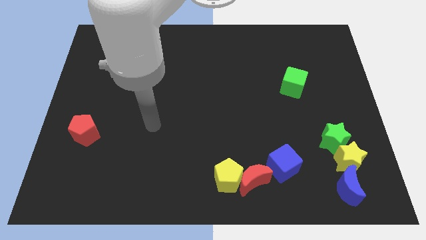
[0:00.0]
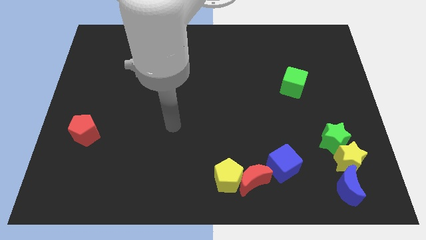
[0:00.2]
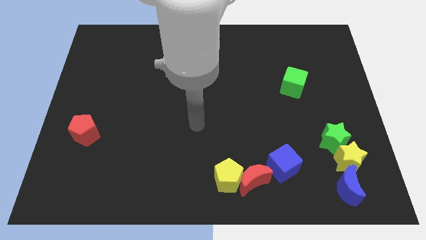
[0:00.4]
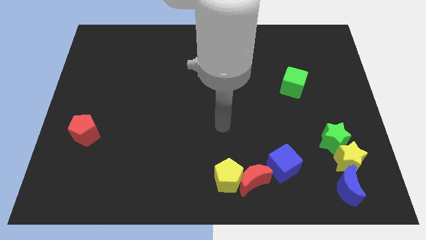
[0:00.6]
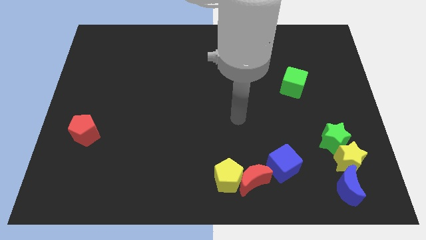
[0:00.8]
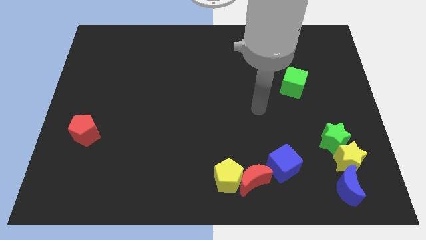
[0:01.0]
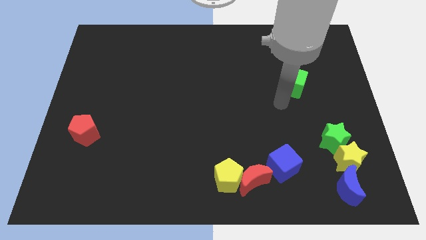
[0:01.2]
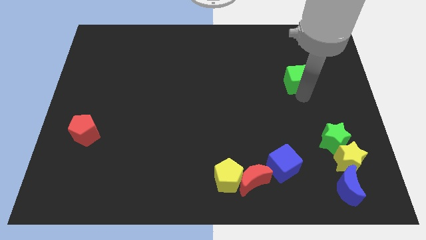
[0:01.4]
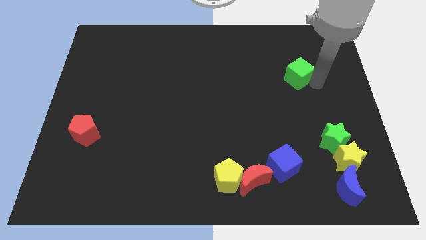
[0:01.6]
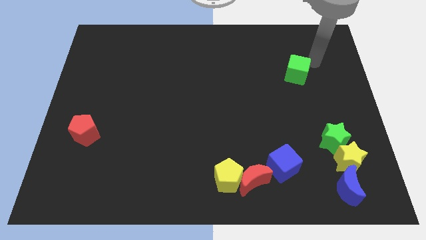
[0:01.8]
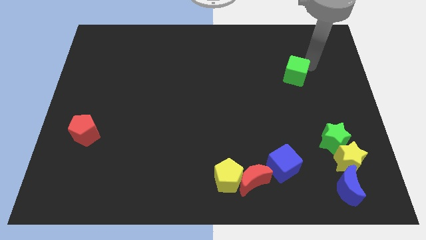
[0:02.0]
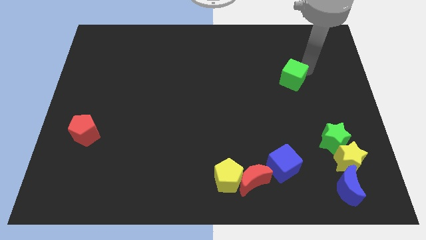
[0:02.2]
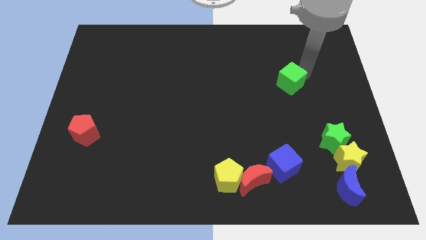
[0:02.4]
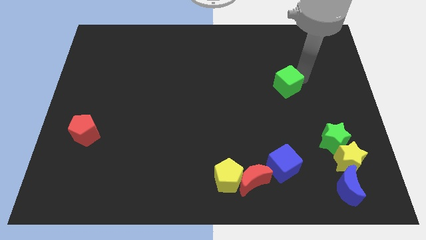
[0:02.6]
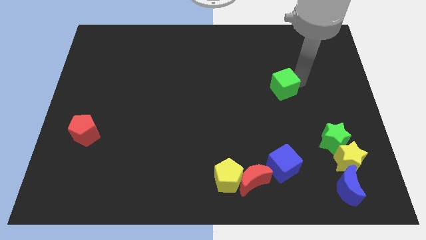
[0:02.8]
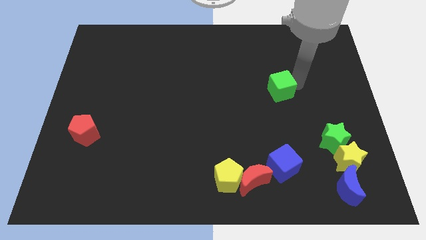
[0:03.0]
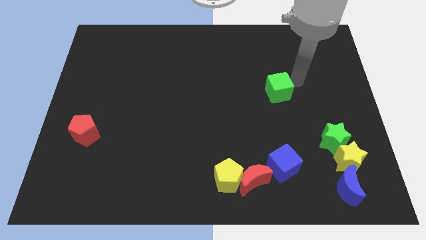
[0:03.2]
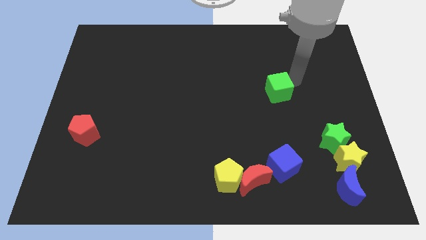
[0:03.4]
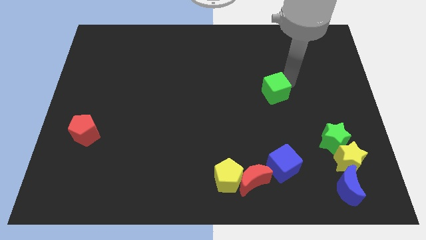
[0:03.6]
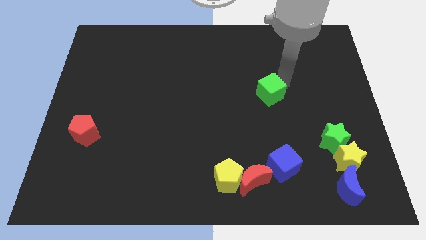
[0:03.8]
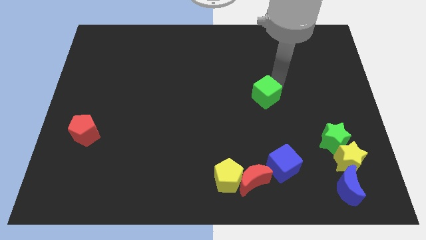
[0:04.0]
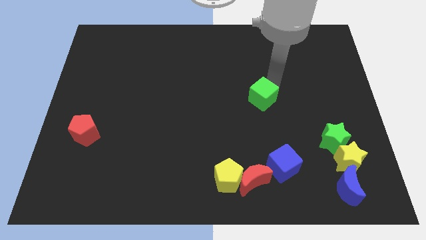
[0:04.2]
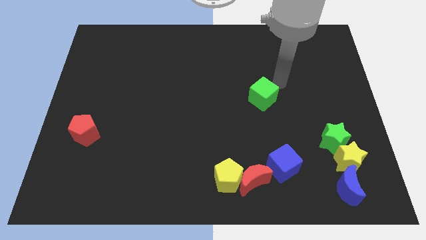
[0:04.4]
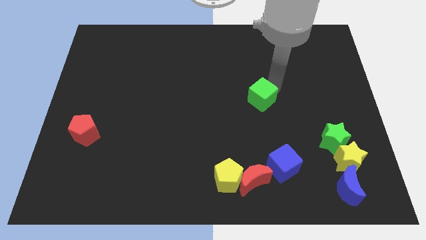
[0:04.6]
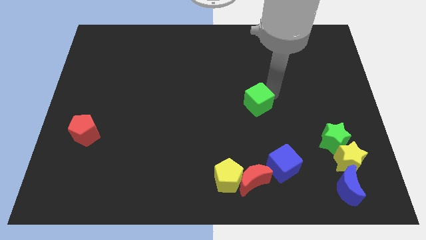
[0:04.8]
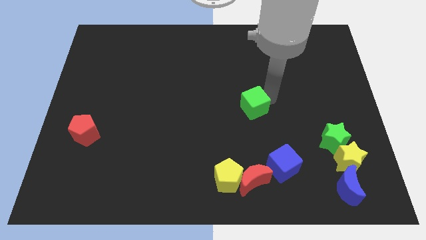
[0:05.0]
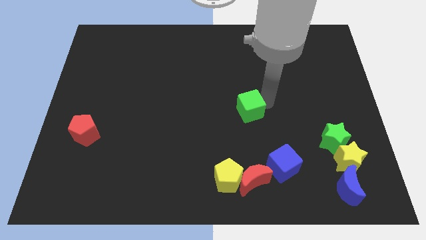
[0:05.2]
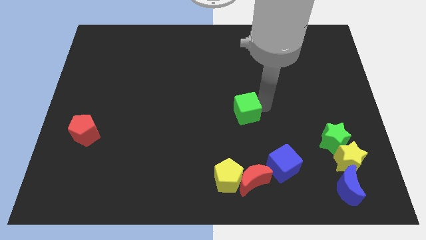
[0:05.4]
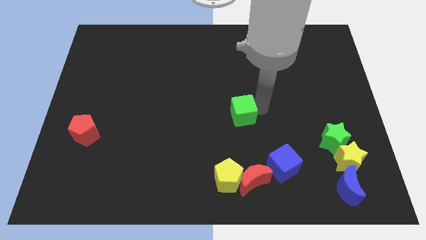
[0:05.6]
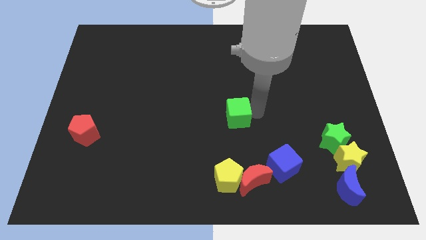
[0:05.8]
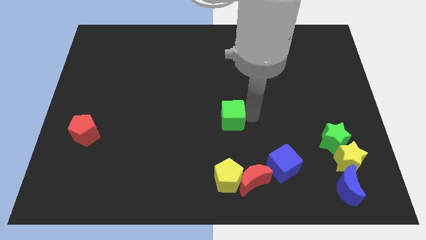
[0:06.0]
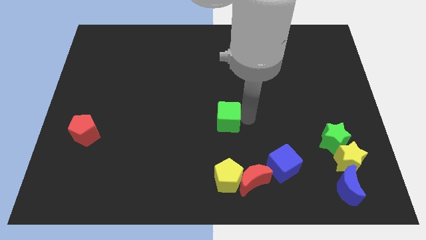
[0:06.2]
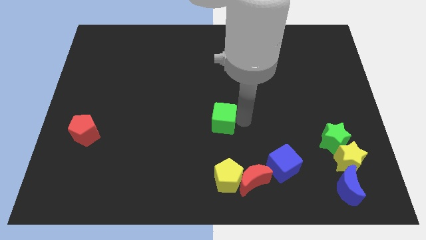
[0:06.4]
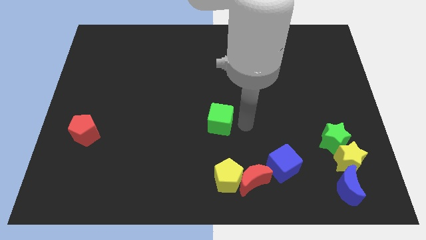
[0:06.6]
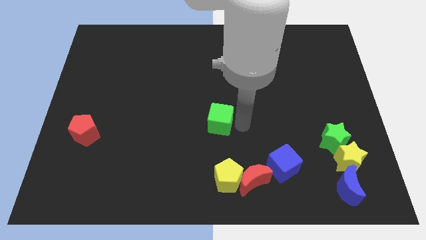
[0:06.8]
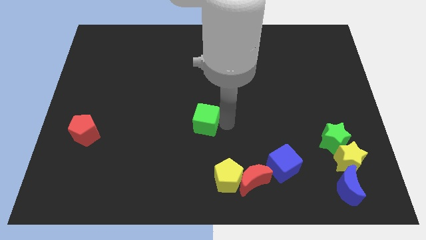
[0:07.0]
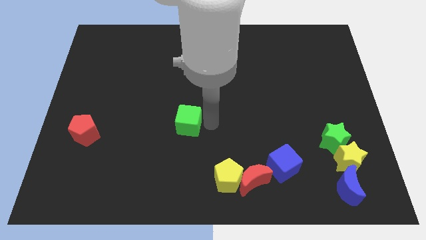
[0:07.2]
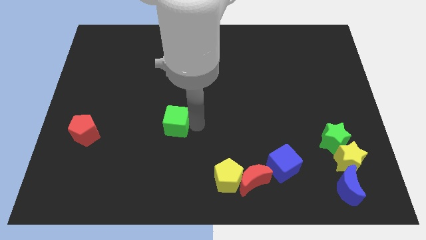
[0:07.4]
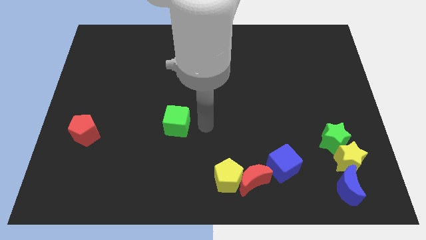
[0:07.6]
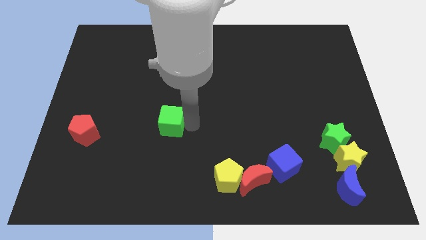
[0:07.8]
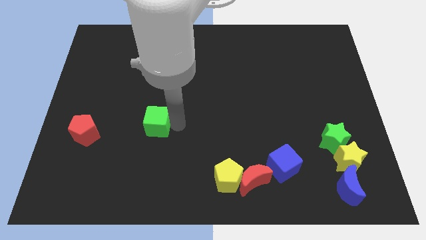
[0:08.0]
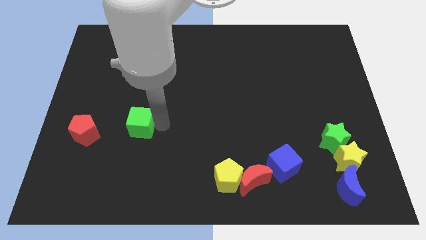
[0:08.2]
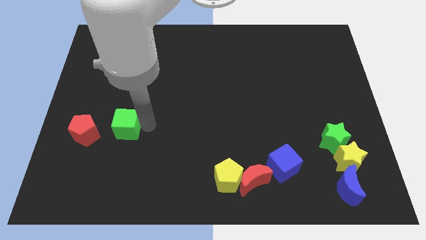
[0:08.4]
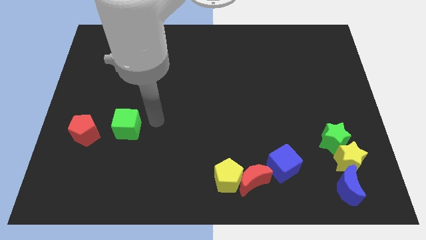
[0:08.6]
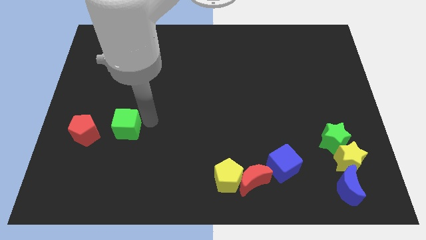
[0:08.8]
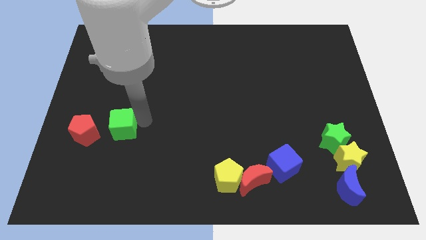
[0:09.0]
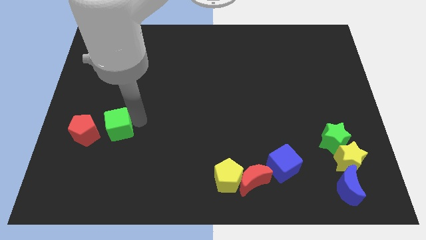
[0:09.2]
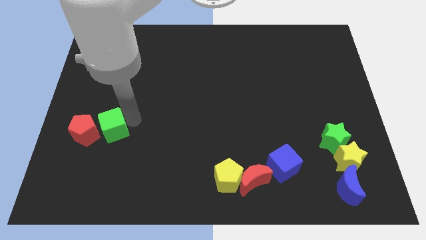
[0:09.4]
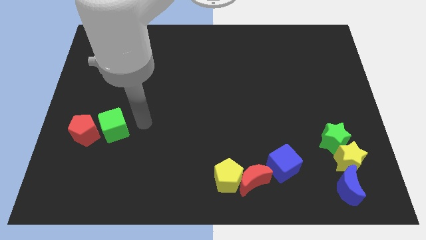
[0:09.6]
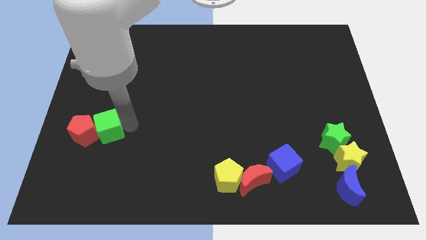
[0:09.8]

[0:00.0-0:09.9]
put the green cube towards the red pentagon

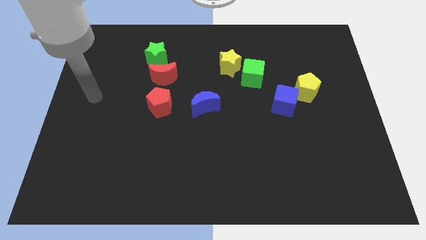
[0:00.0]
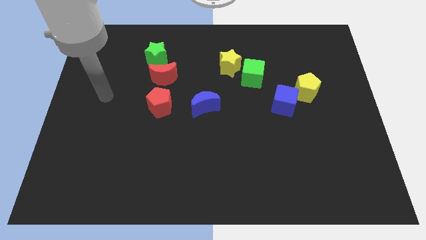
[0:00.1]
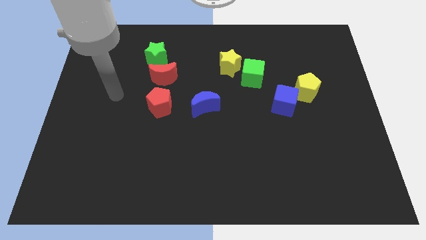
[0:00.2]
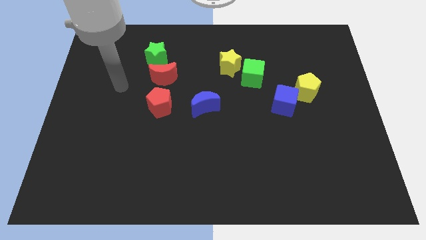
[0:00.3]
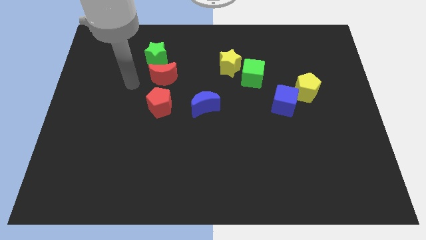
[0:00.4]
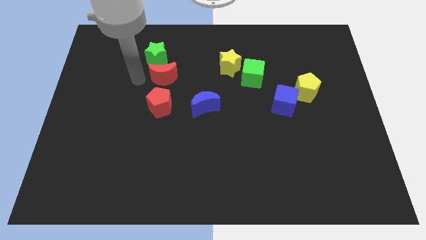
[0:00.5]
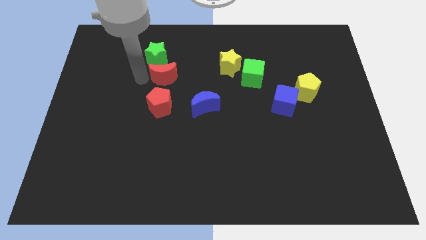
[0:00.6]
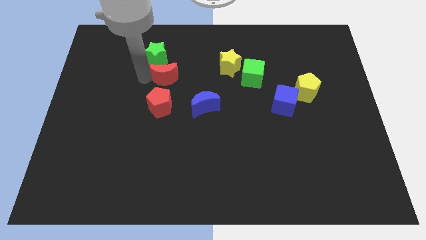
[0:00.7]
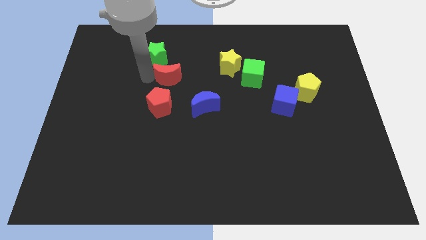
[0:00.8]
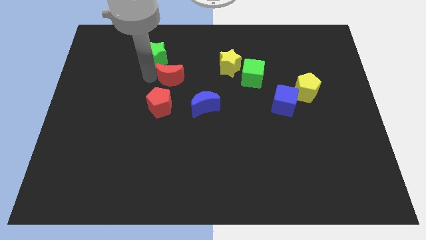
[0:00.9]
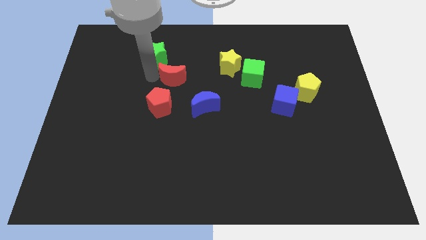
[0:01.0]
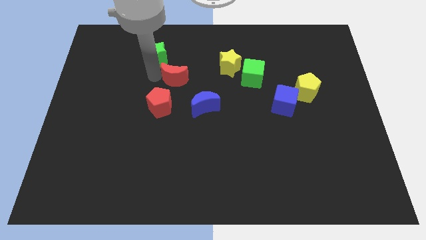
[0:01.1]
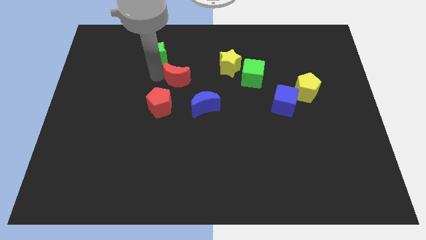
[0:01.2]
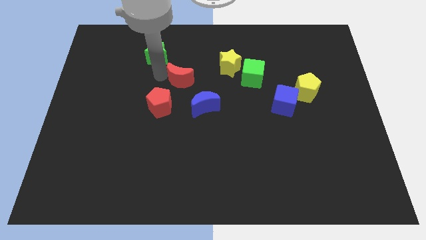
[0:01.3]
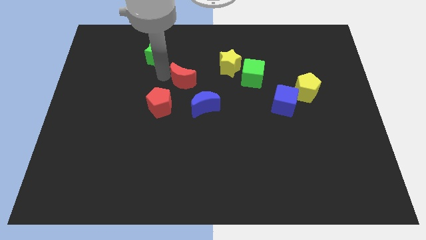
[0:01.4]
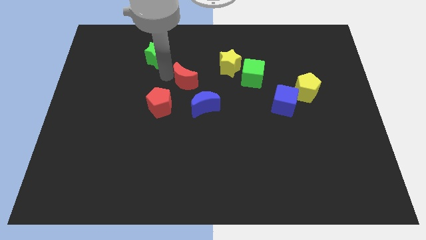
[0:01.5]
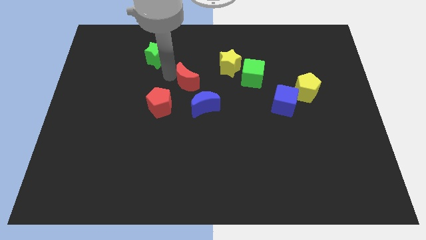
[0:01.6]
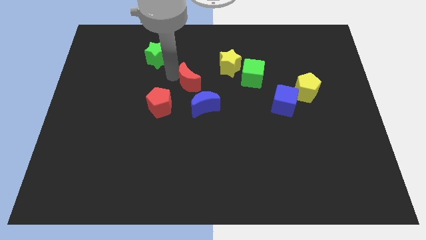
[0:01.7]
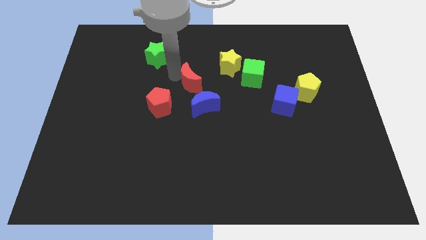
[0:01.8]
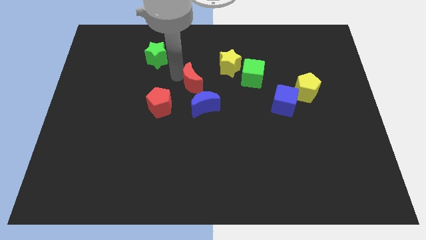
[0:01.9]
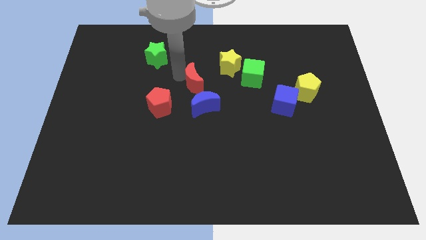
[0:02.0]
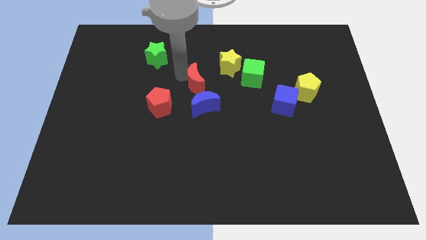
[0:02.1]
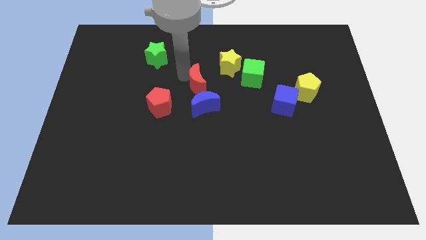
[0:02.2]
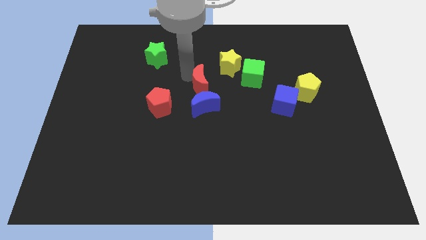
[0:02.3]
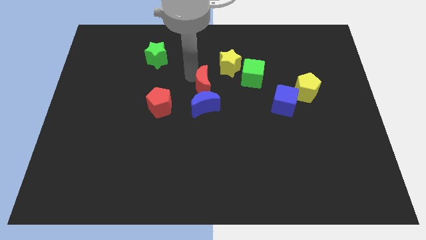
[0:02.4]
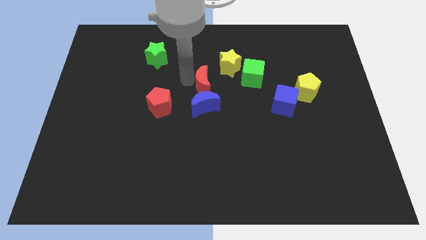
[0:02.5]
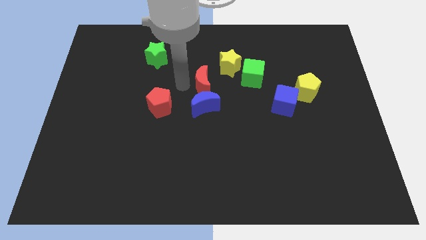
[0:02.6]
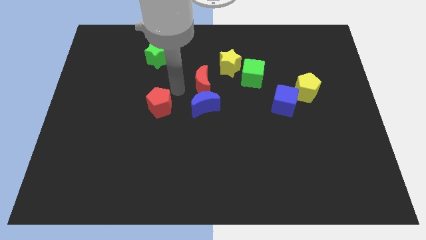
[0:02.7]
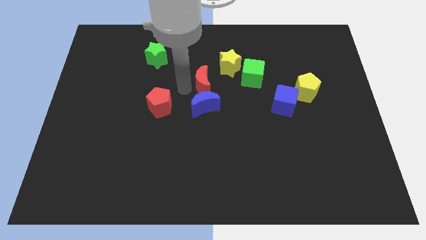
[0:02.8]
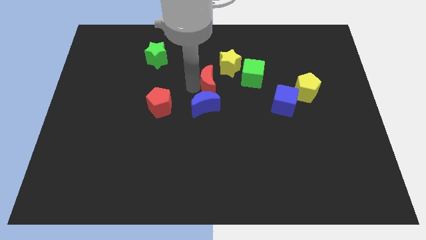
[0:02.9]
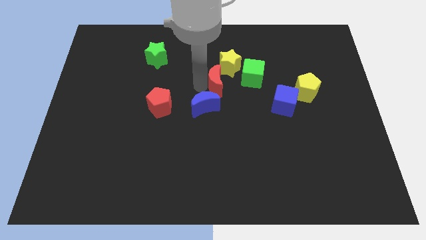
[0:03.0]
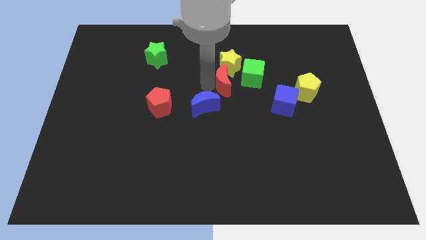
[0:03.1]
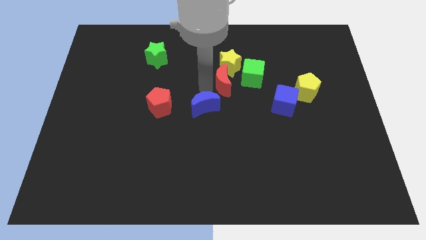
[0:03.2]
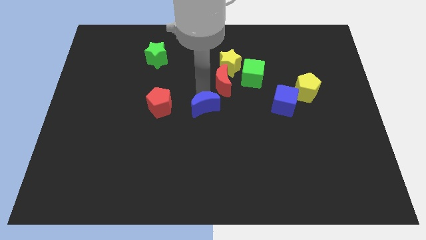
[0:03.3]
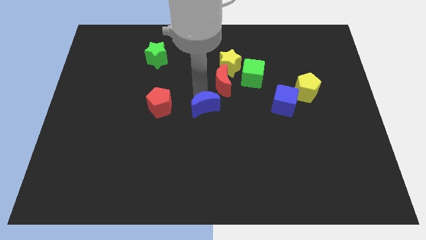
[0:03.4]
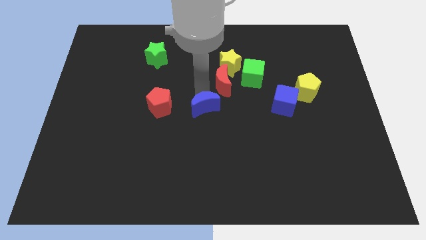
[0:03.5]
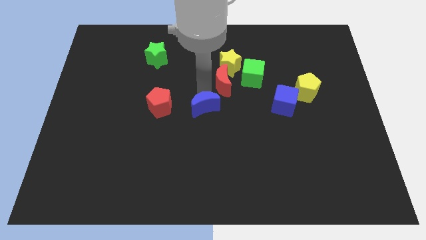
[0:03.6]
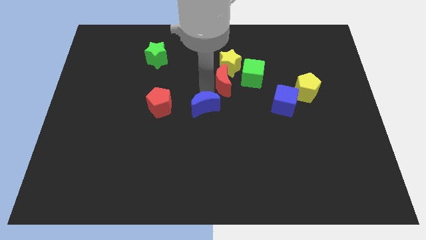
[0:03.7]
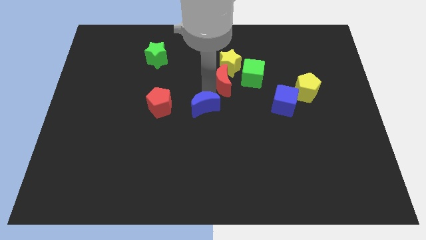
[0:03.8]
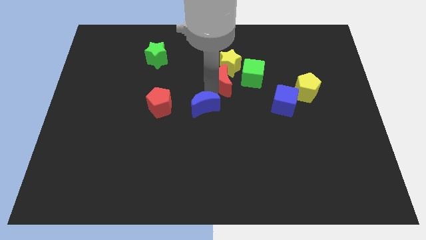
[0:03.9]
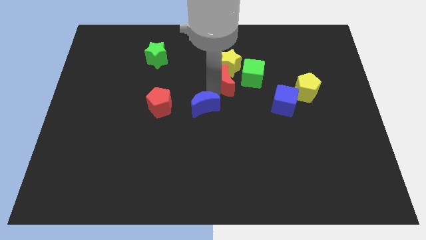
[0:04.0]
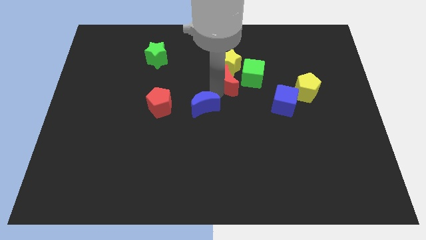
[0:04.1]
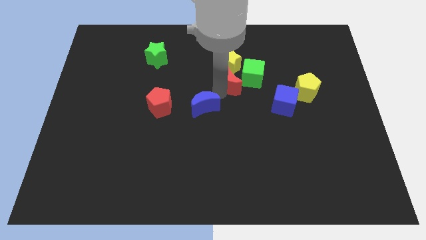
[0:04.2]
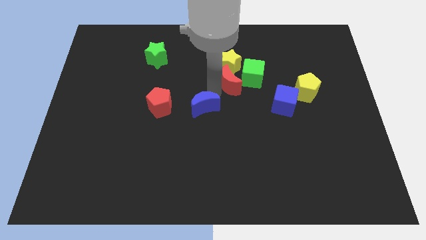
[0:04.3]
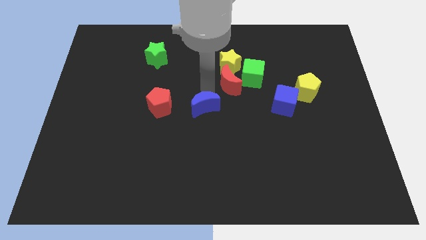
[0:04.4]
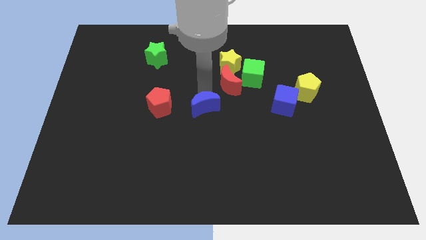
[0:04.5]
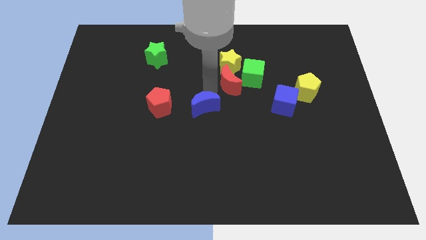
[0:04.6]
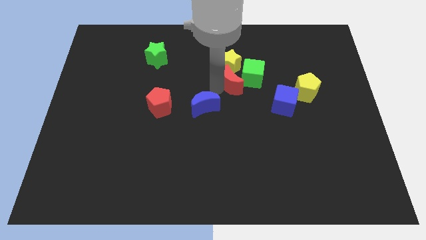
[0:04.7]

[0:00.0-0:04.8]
push the red moon towards the green cube
